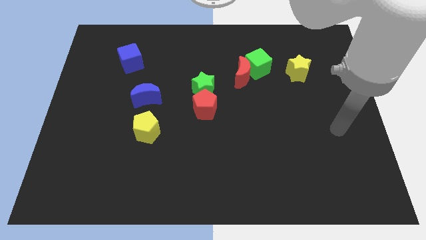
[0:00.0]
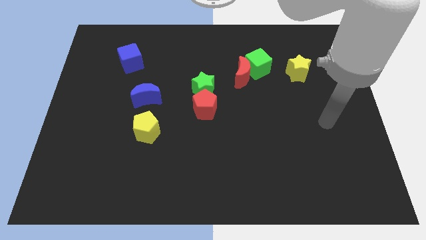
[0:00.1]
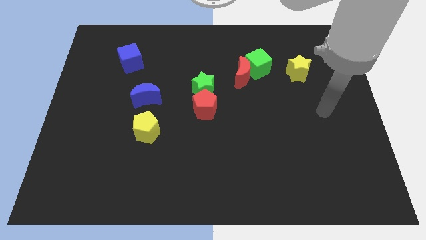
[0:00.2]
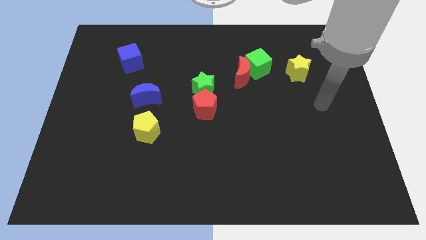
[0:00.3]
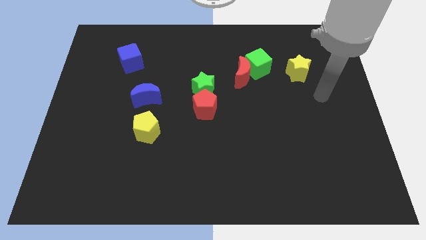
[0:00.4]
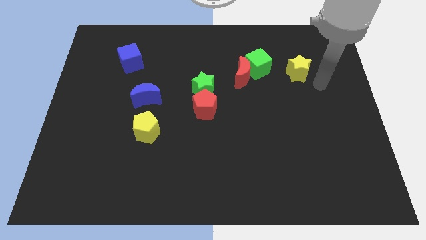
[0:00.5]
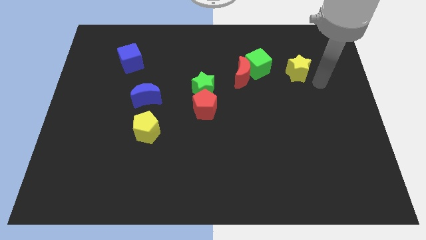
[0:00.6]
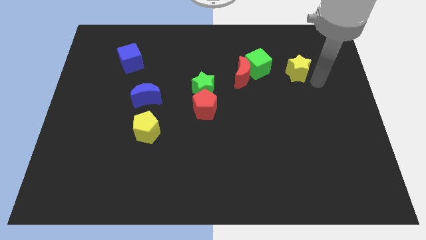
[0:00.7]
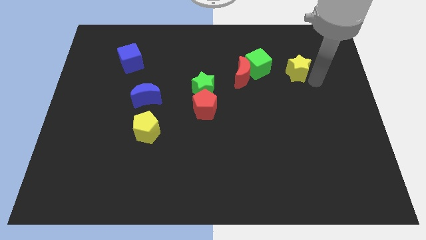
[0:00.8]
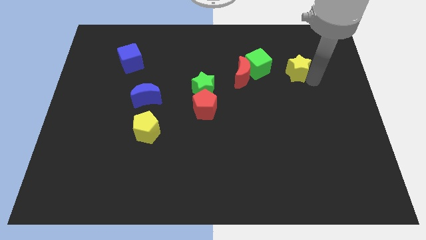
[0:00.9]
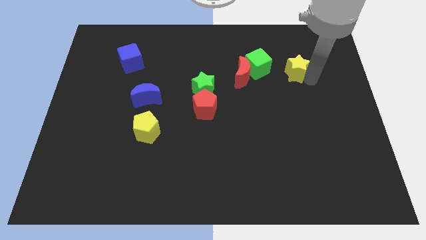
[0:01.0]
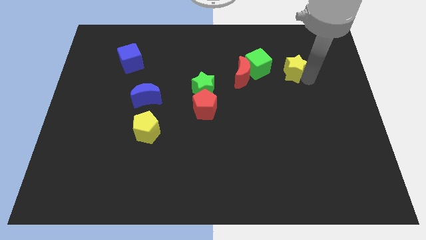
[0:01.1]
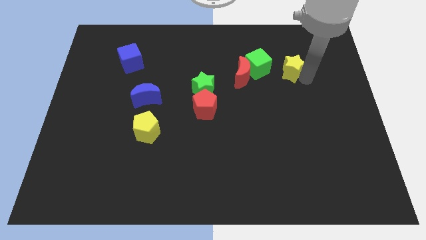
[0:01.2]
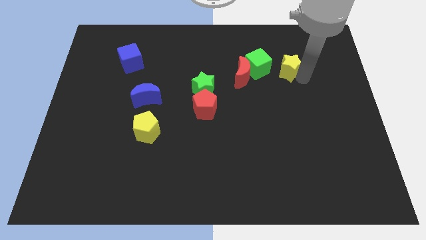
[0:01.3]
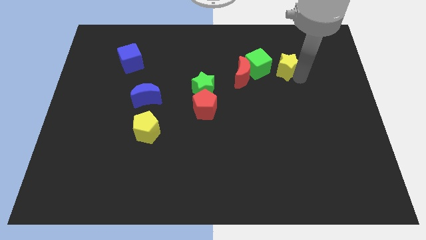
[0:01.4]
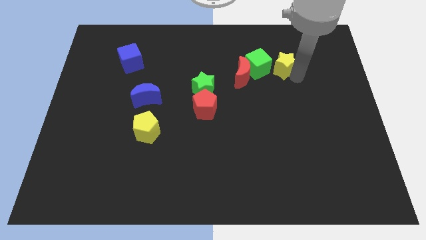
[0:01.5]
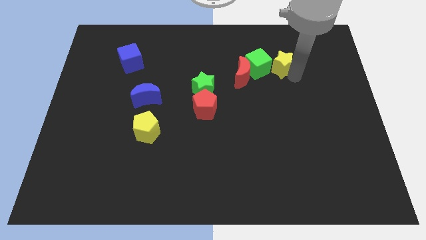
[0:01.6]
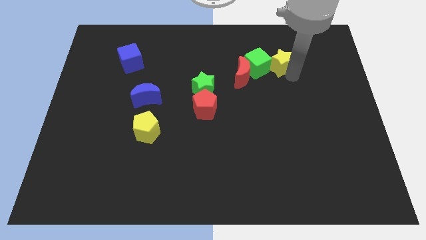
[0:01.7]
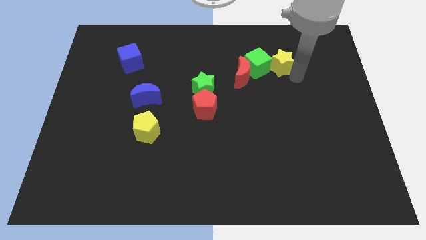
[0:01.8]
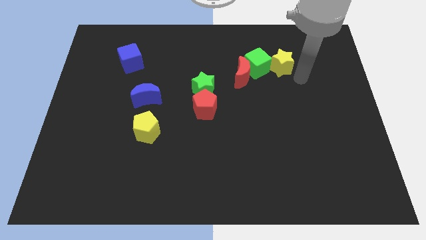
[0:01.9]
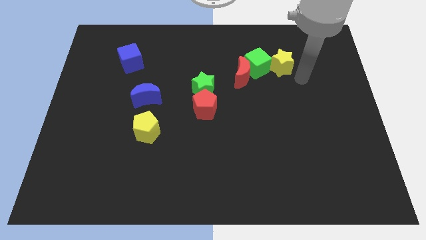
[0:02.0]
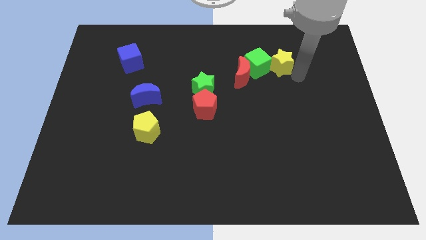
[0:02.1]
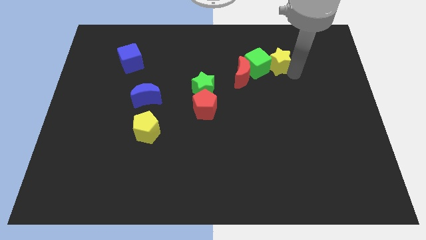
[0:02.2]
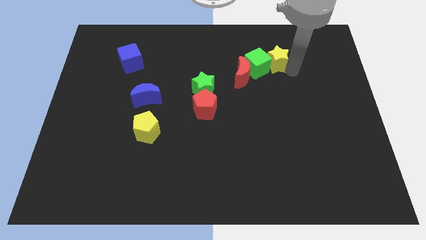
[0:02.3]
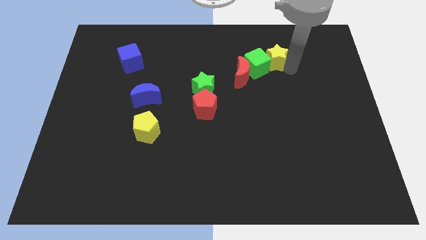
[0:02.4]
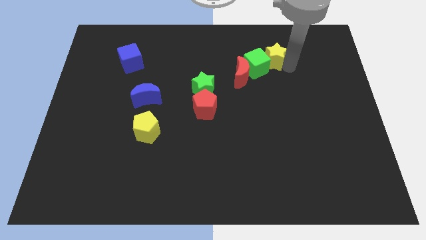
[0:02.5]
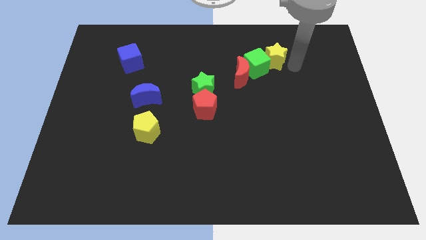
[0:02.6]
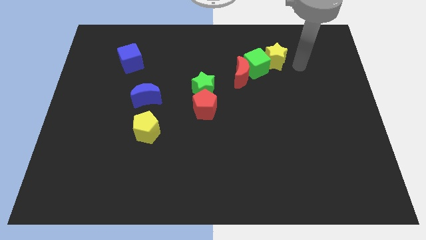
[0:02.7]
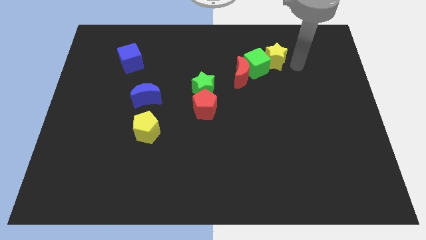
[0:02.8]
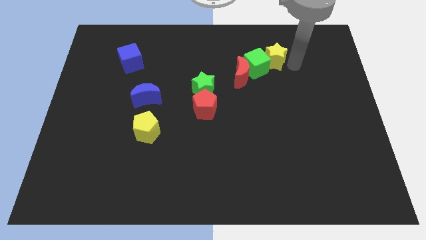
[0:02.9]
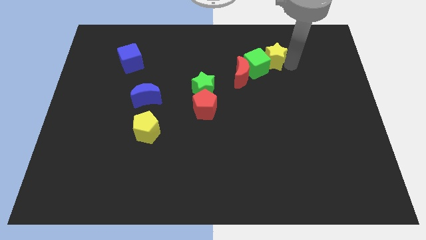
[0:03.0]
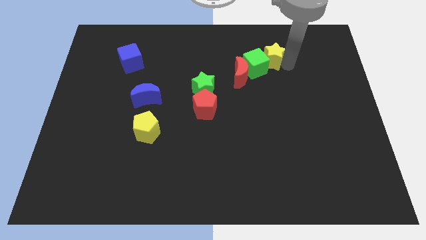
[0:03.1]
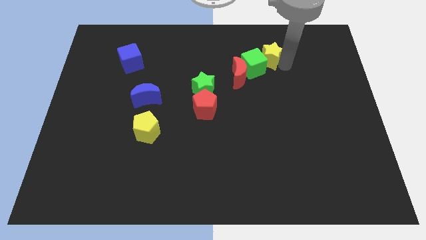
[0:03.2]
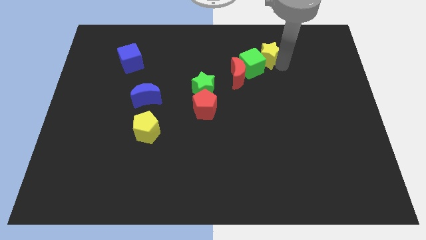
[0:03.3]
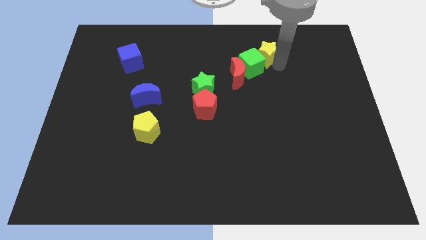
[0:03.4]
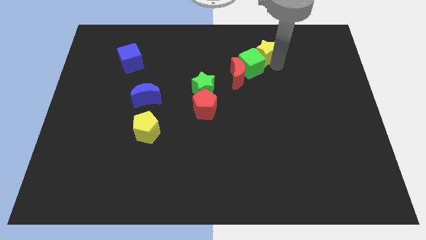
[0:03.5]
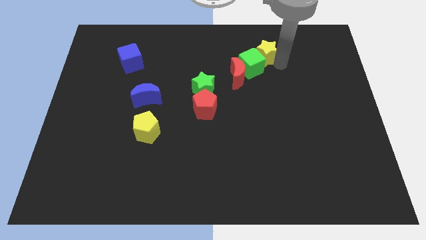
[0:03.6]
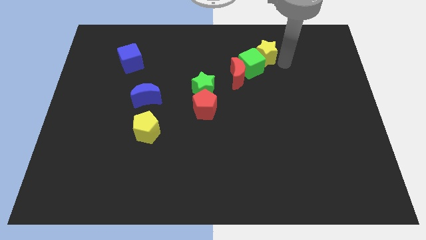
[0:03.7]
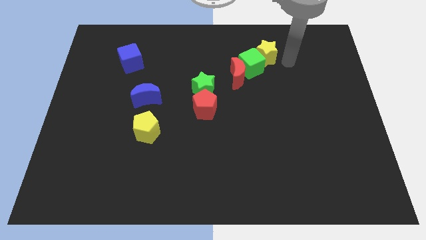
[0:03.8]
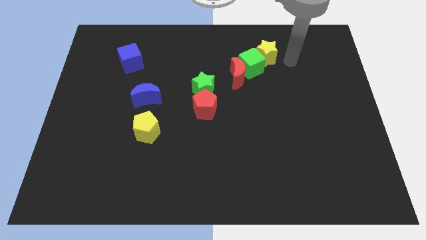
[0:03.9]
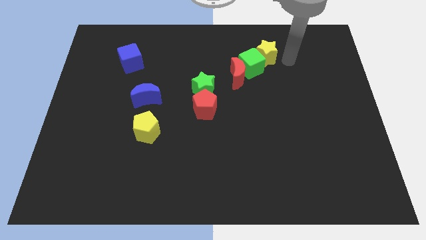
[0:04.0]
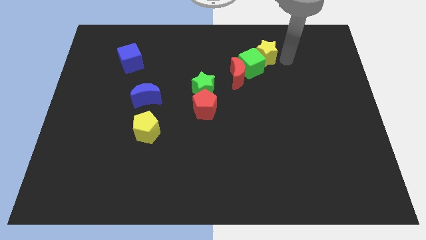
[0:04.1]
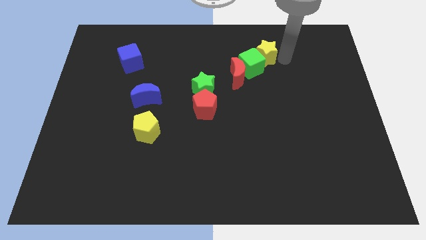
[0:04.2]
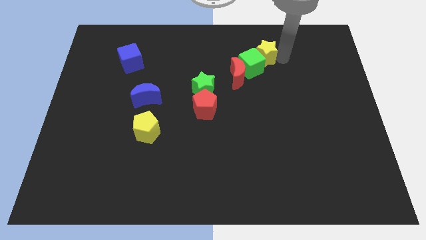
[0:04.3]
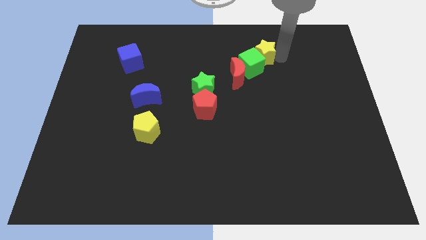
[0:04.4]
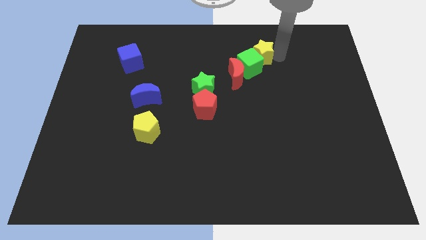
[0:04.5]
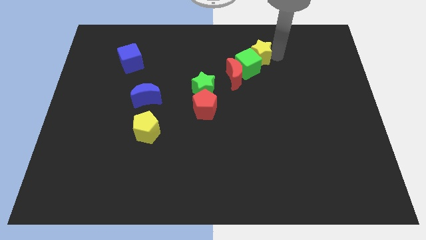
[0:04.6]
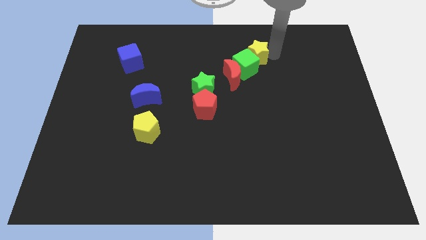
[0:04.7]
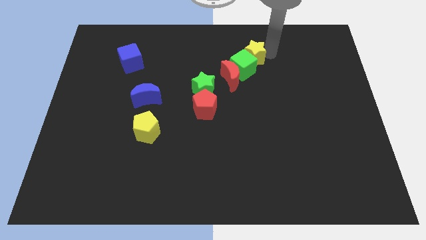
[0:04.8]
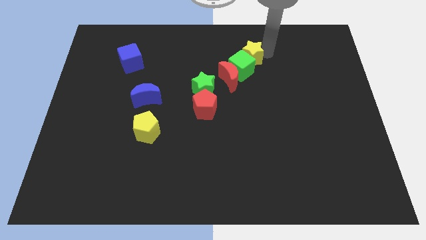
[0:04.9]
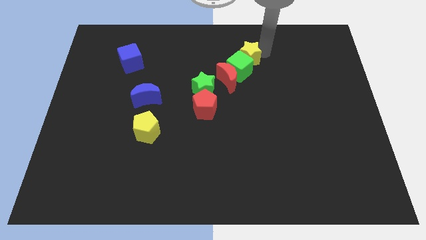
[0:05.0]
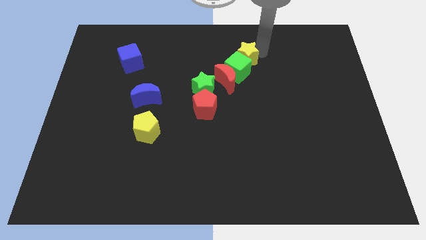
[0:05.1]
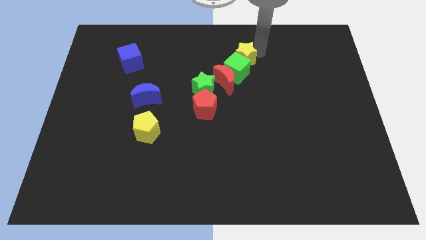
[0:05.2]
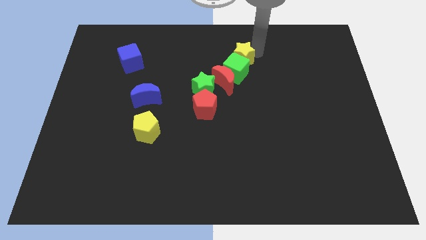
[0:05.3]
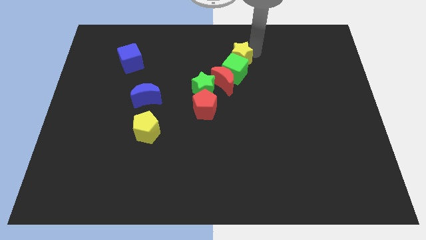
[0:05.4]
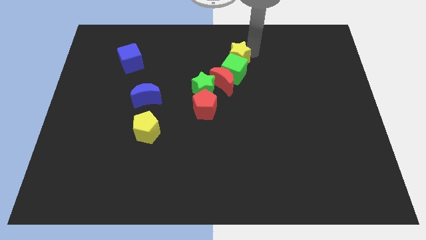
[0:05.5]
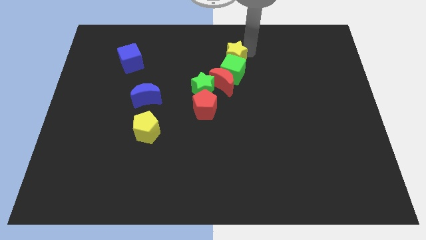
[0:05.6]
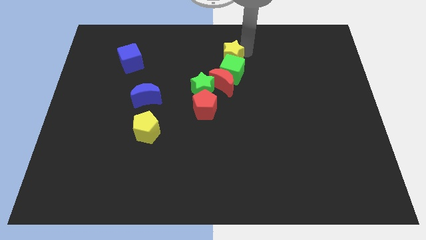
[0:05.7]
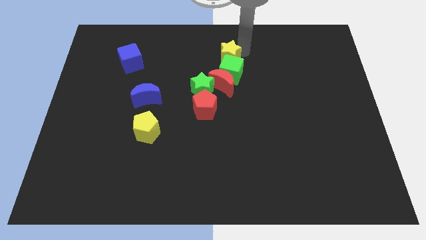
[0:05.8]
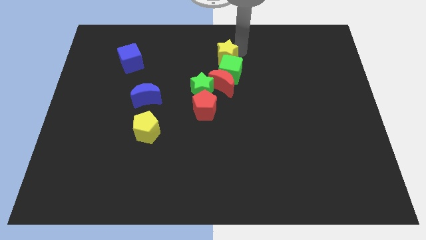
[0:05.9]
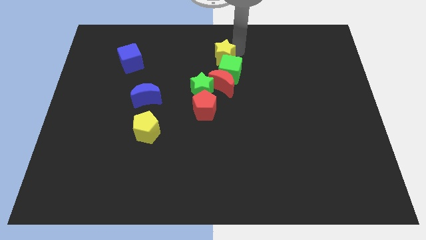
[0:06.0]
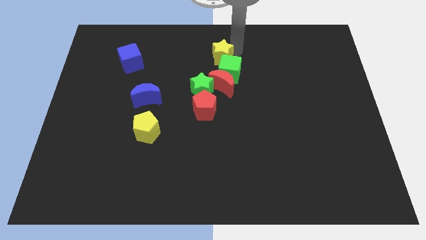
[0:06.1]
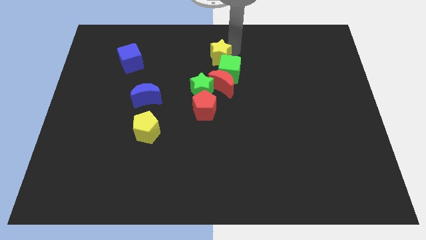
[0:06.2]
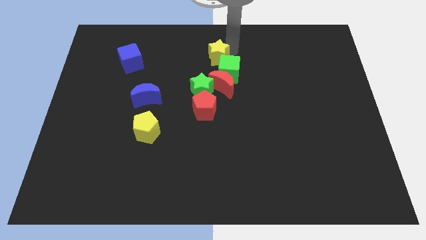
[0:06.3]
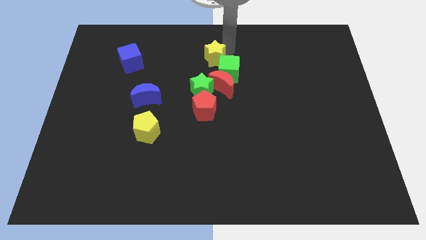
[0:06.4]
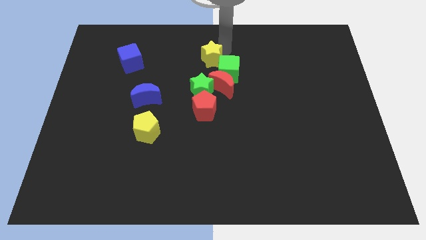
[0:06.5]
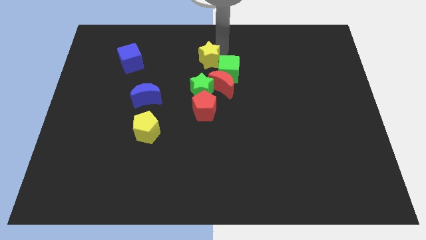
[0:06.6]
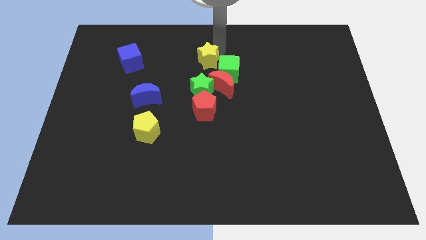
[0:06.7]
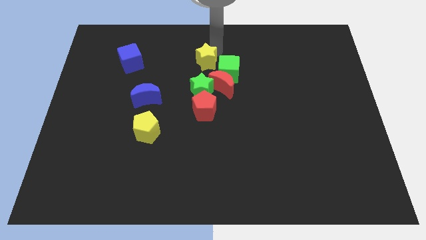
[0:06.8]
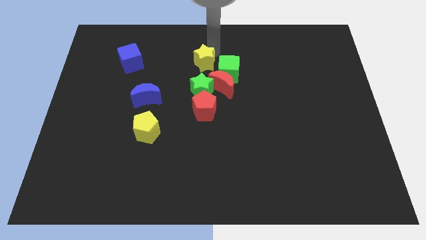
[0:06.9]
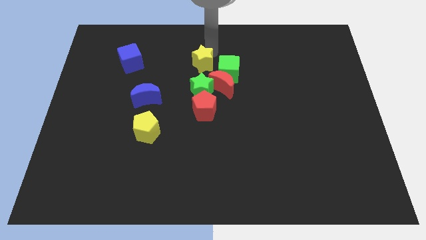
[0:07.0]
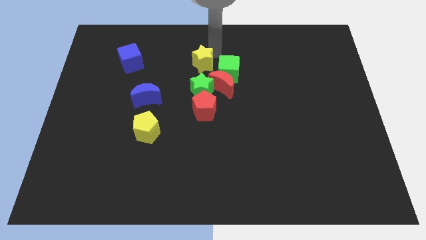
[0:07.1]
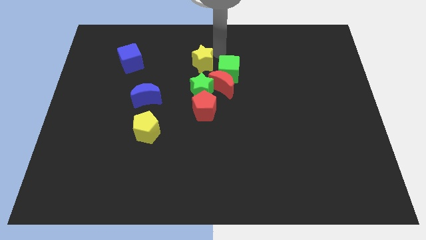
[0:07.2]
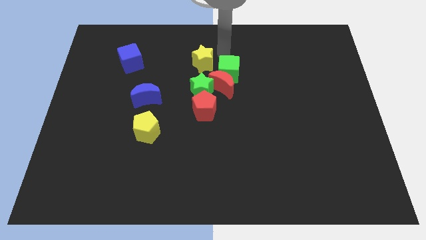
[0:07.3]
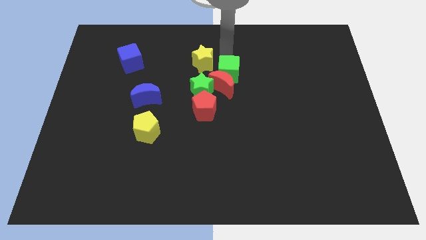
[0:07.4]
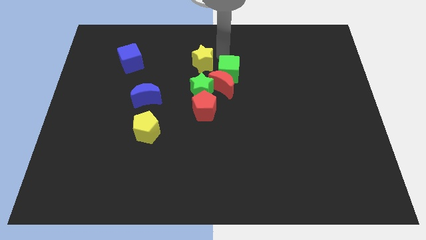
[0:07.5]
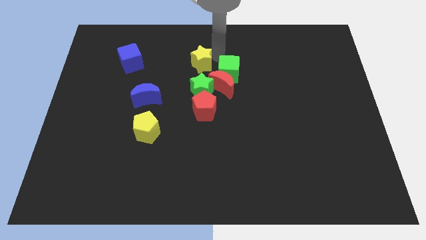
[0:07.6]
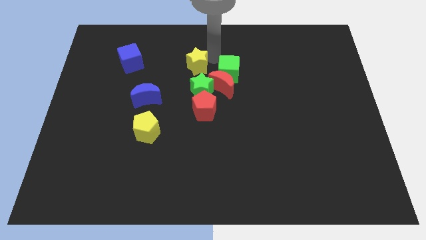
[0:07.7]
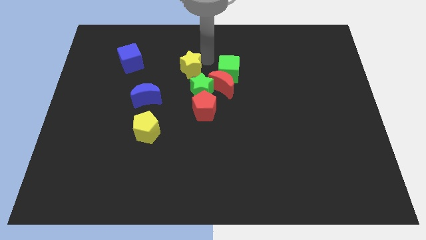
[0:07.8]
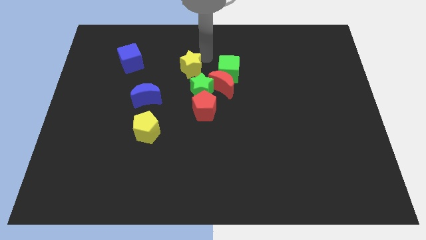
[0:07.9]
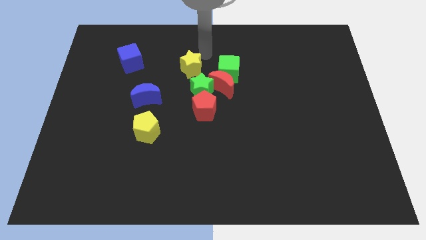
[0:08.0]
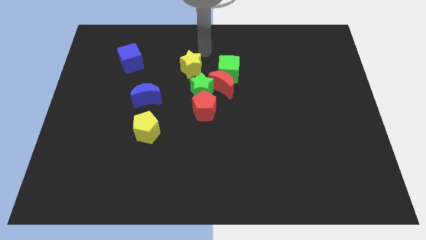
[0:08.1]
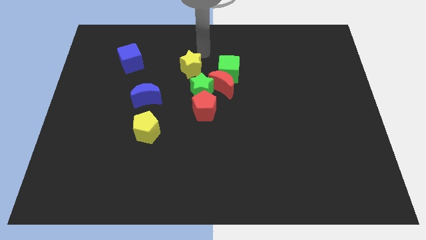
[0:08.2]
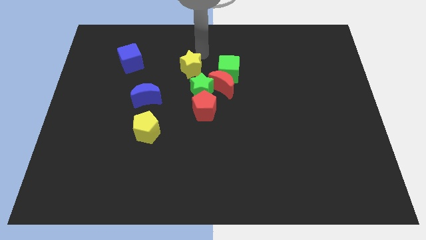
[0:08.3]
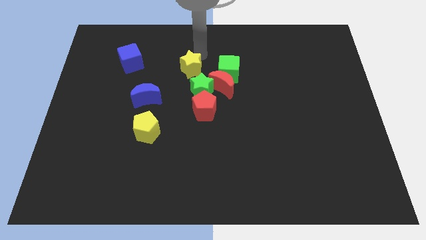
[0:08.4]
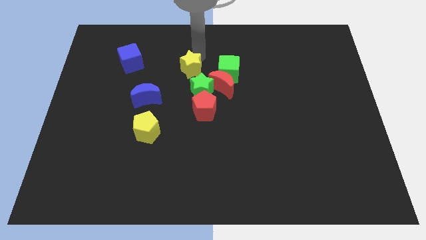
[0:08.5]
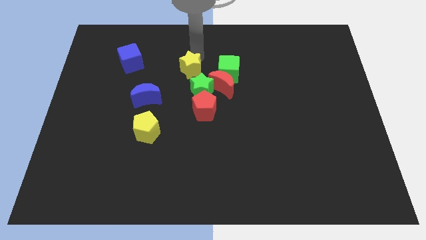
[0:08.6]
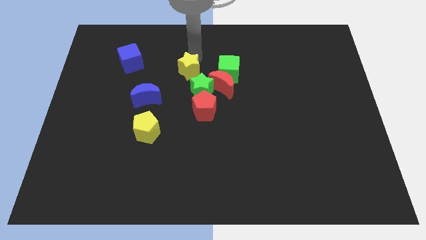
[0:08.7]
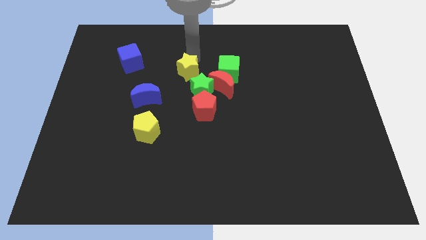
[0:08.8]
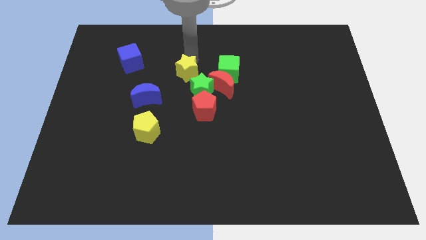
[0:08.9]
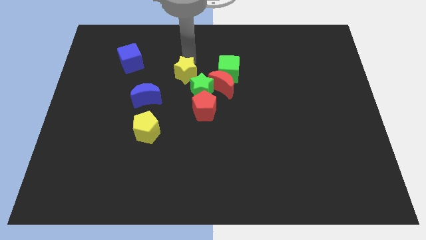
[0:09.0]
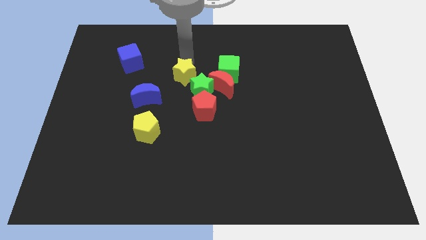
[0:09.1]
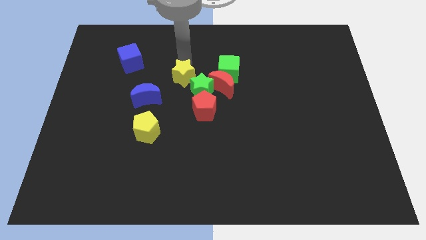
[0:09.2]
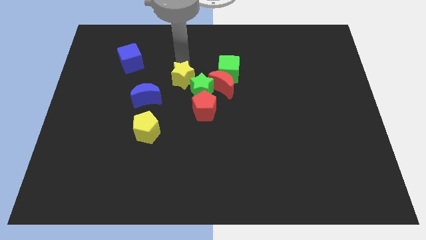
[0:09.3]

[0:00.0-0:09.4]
push the yellow star to the top left side of the red pentagon
